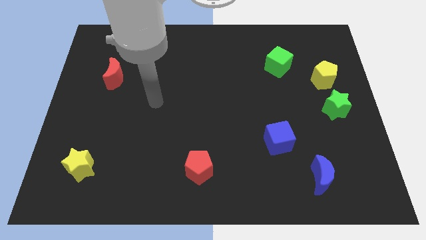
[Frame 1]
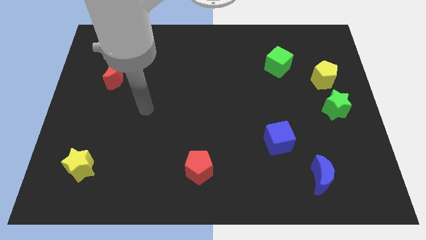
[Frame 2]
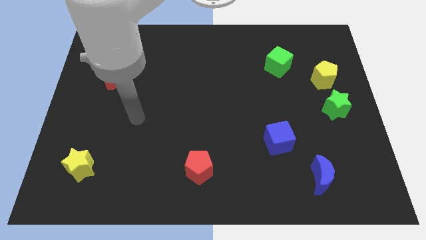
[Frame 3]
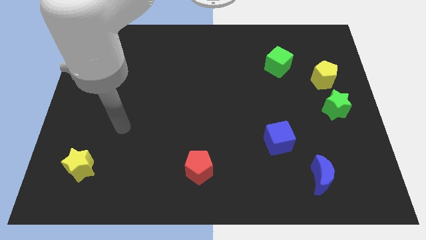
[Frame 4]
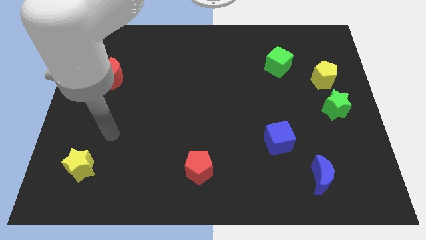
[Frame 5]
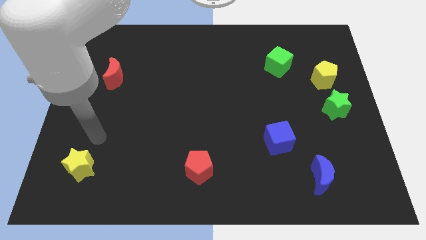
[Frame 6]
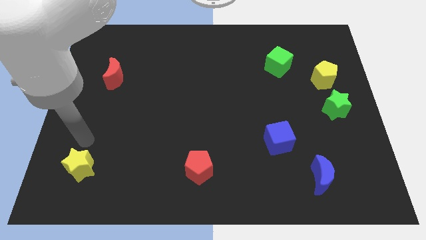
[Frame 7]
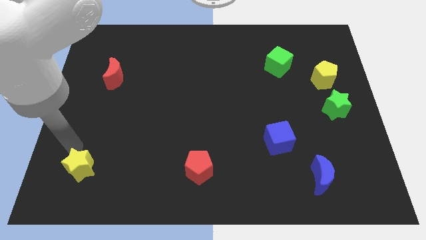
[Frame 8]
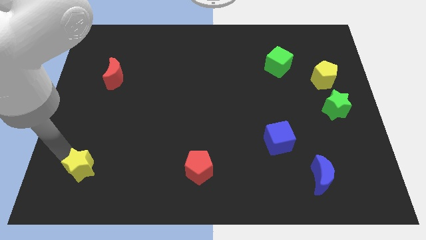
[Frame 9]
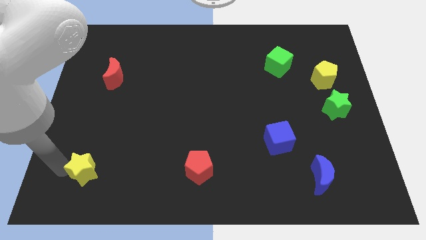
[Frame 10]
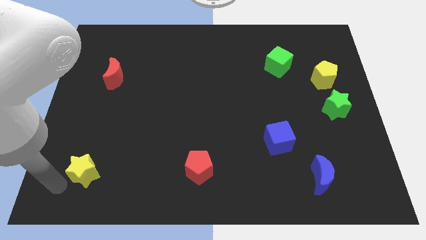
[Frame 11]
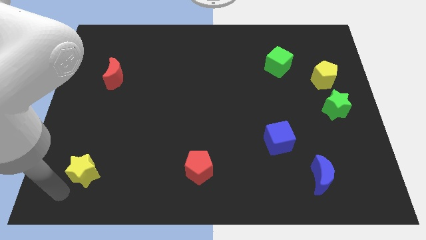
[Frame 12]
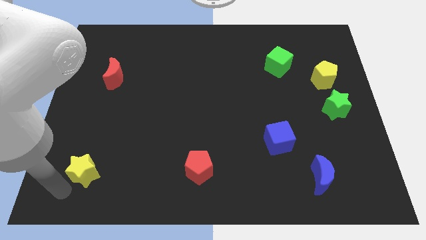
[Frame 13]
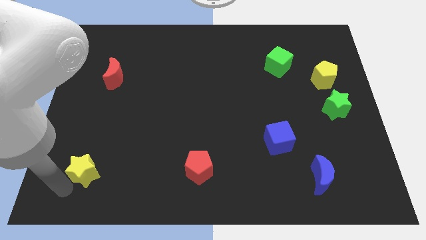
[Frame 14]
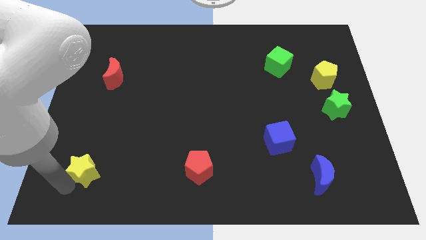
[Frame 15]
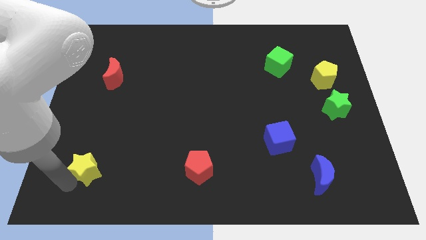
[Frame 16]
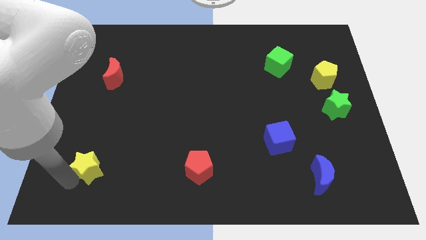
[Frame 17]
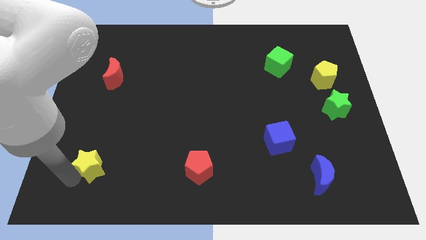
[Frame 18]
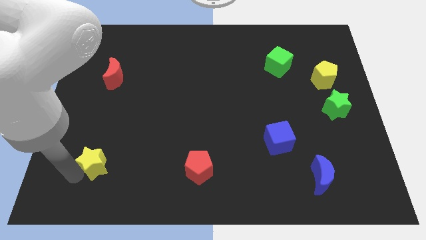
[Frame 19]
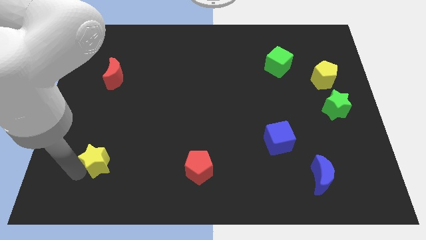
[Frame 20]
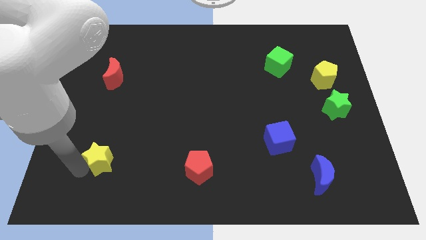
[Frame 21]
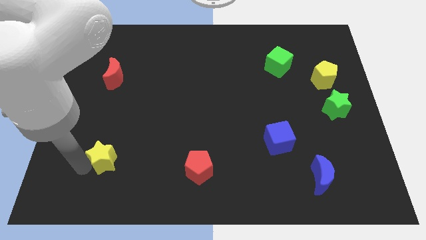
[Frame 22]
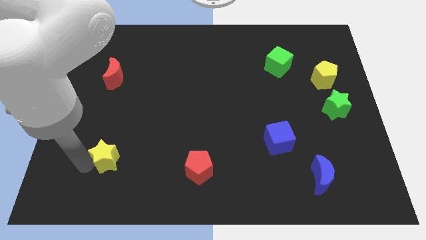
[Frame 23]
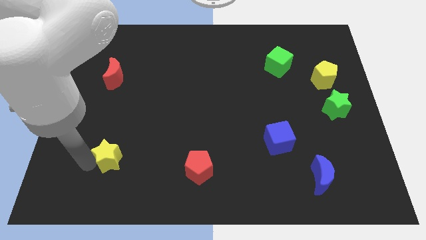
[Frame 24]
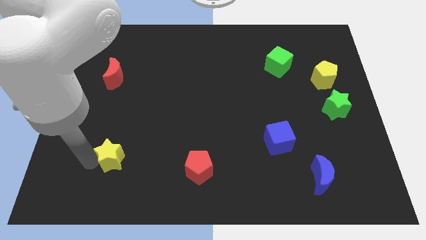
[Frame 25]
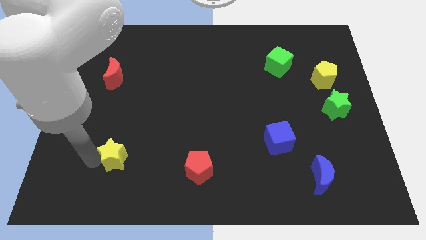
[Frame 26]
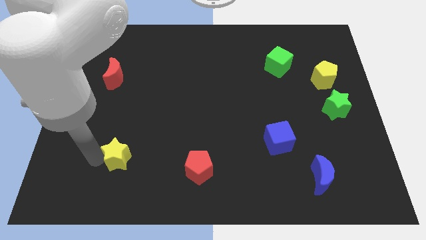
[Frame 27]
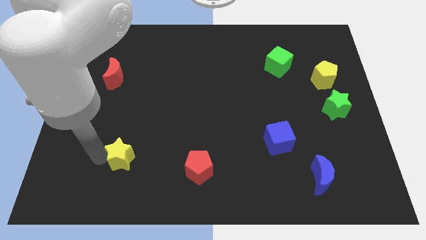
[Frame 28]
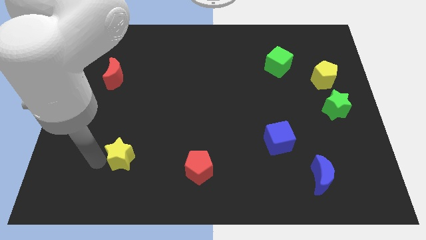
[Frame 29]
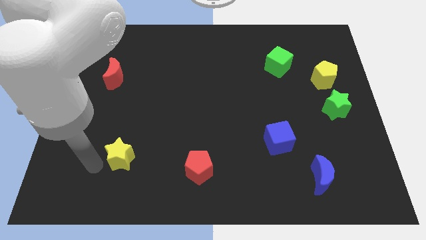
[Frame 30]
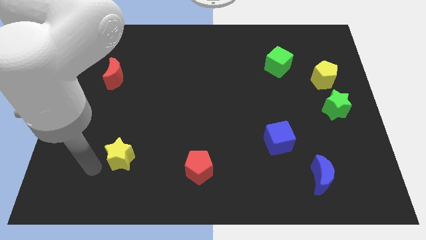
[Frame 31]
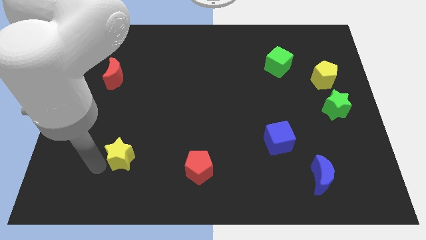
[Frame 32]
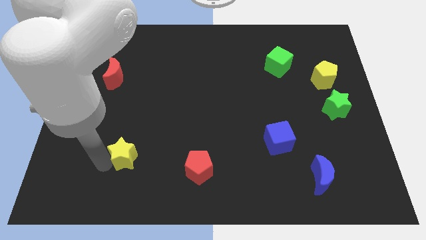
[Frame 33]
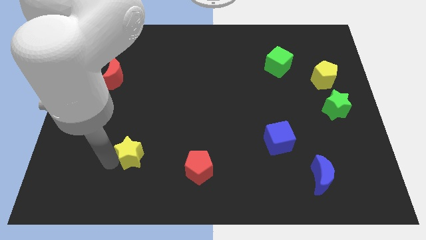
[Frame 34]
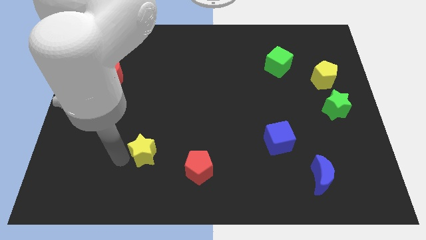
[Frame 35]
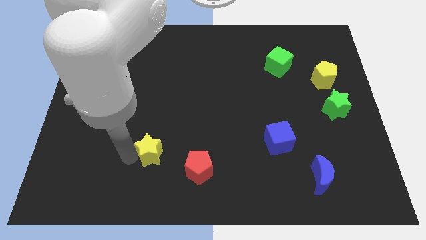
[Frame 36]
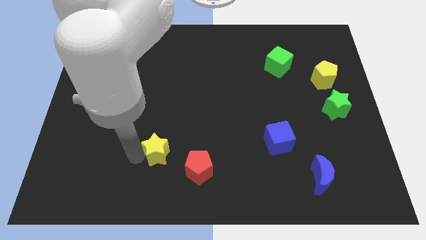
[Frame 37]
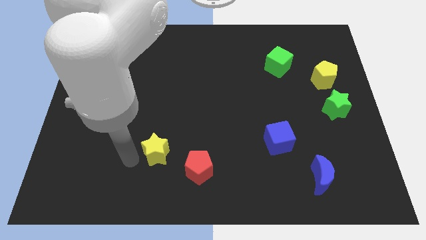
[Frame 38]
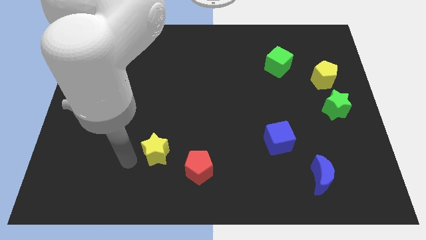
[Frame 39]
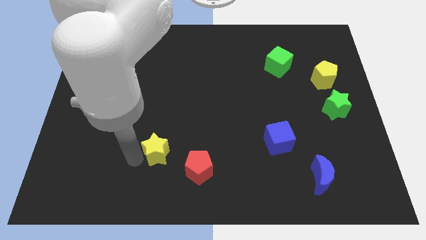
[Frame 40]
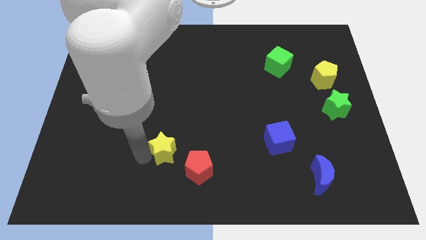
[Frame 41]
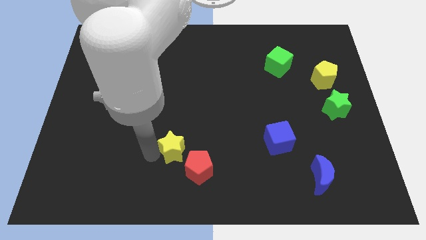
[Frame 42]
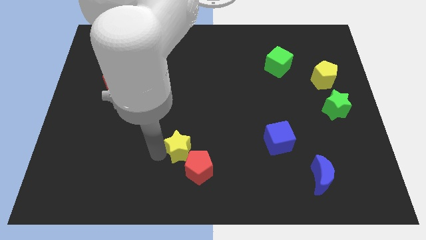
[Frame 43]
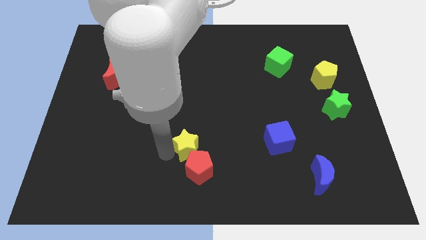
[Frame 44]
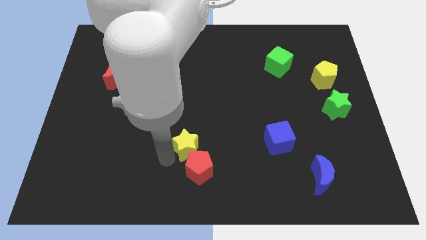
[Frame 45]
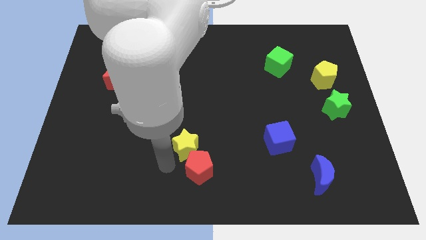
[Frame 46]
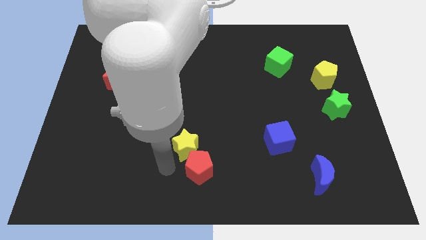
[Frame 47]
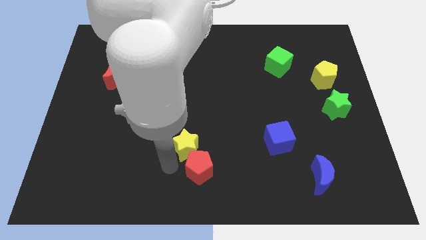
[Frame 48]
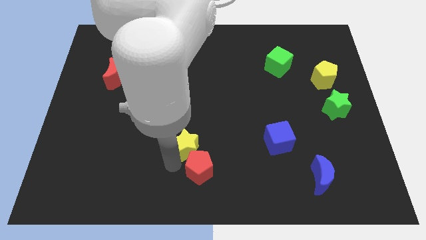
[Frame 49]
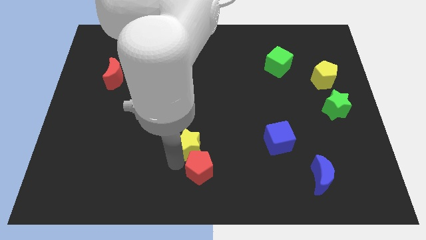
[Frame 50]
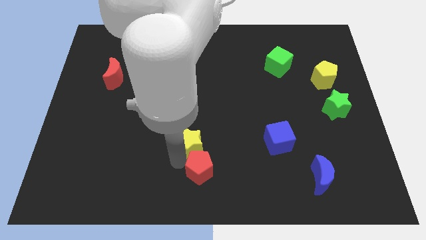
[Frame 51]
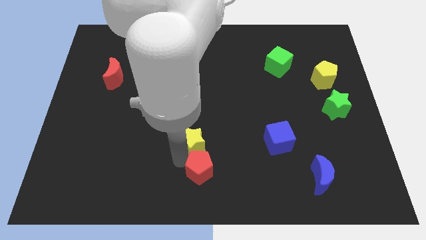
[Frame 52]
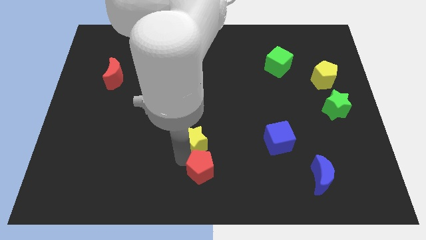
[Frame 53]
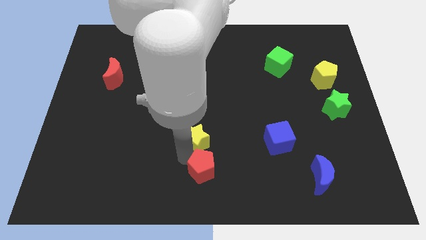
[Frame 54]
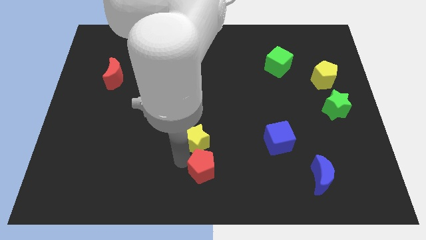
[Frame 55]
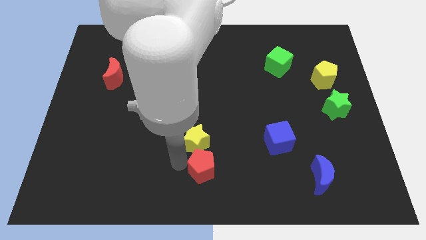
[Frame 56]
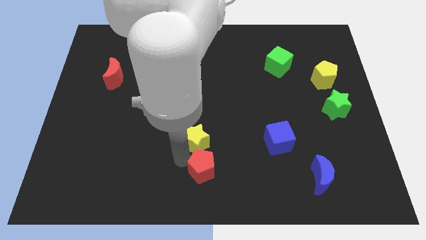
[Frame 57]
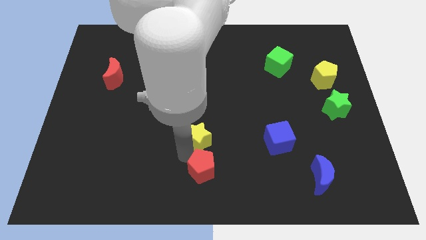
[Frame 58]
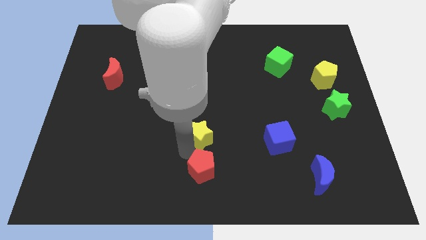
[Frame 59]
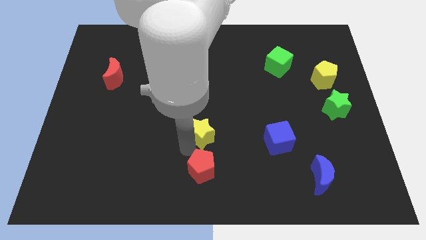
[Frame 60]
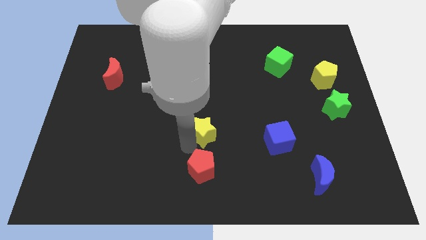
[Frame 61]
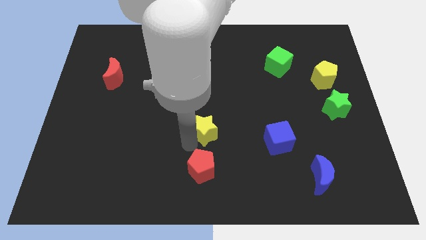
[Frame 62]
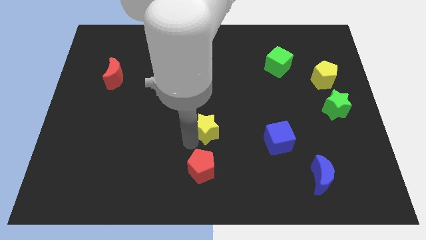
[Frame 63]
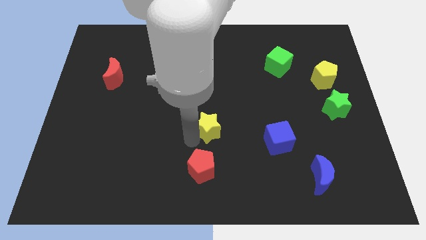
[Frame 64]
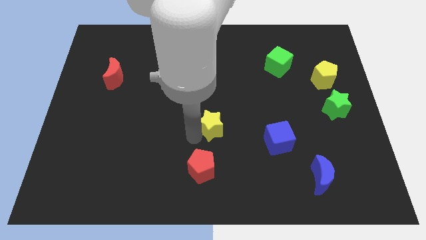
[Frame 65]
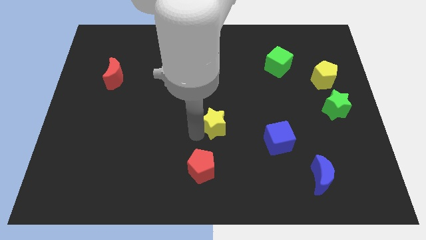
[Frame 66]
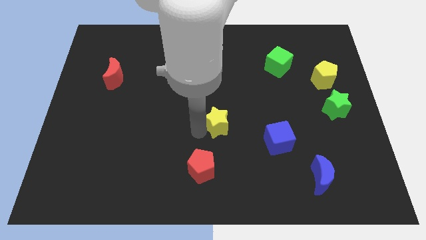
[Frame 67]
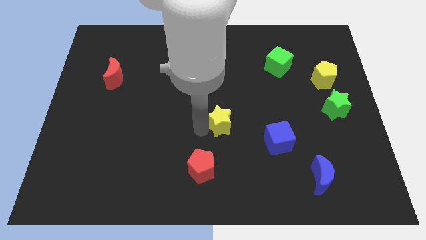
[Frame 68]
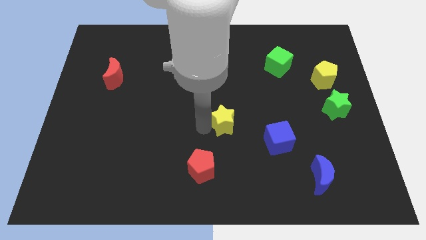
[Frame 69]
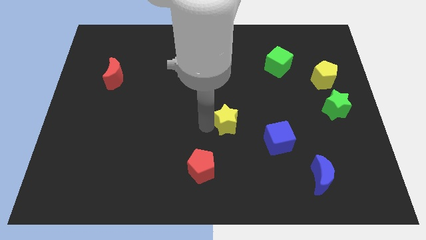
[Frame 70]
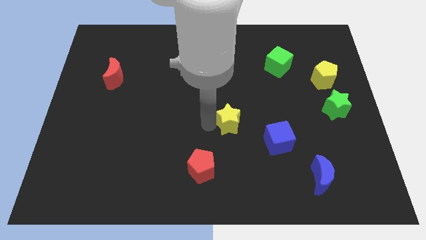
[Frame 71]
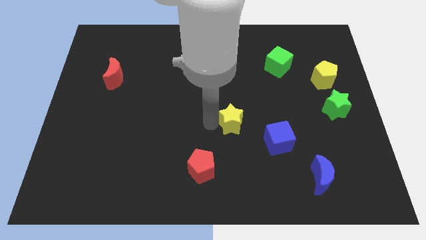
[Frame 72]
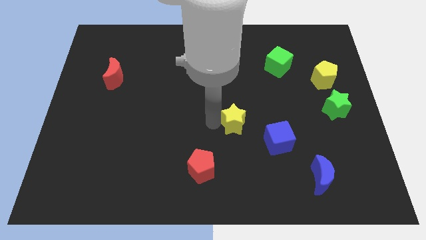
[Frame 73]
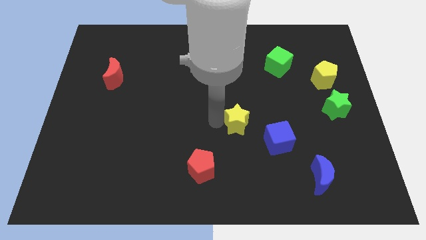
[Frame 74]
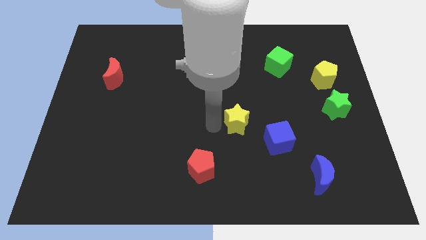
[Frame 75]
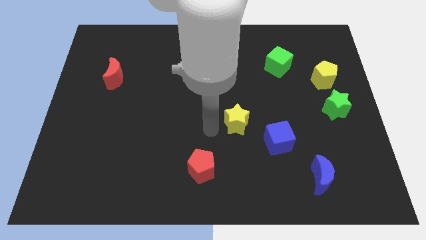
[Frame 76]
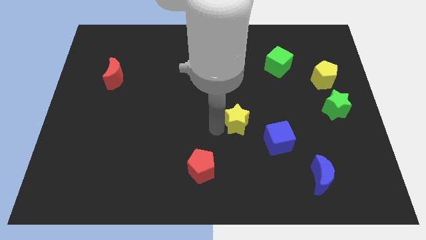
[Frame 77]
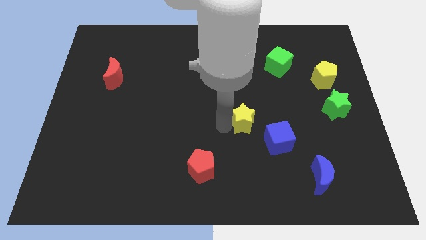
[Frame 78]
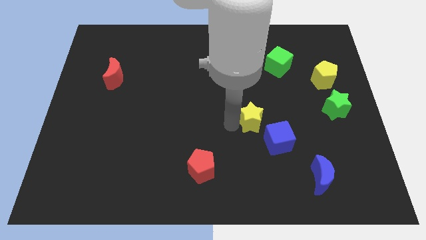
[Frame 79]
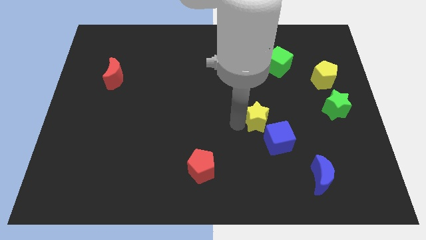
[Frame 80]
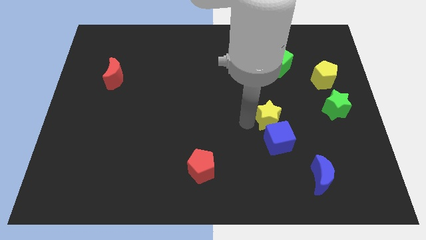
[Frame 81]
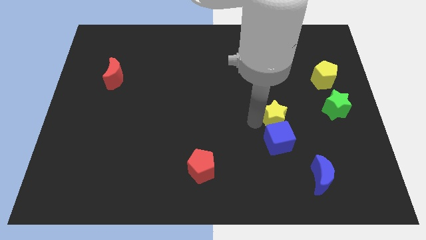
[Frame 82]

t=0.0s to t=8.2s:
push the yellow star left of the green star
